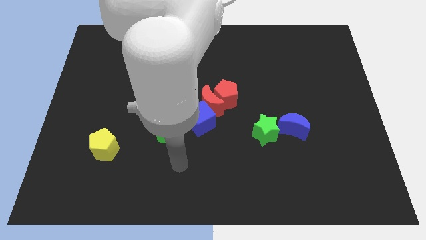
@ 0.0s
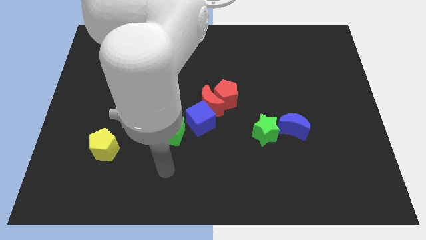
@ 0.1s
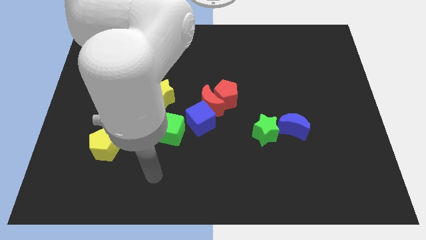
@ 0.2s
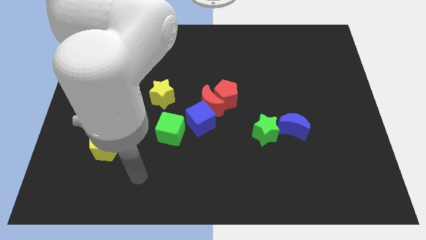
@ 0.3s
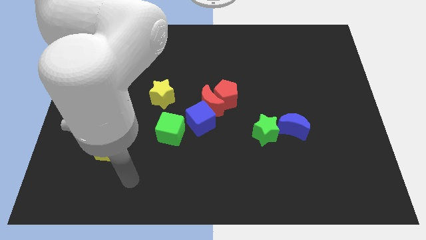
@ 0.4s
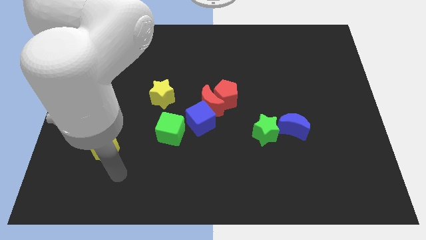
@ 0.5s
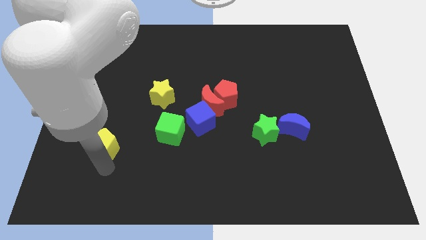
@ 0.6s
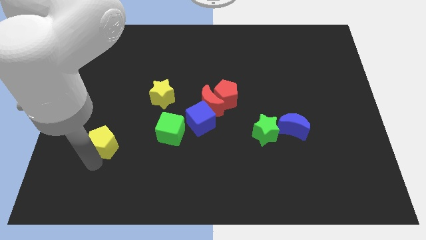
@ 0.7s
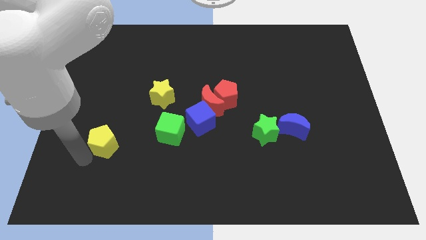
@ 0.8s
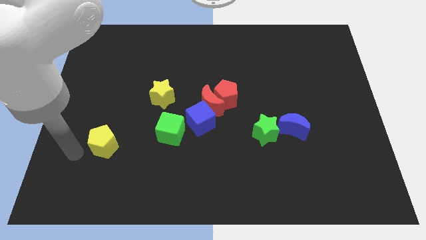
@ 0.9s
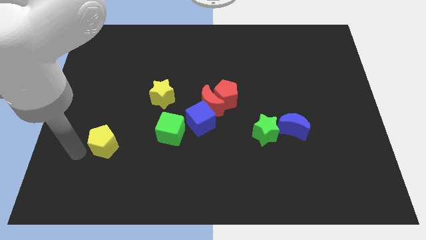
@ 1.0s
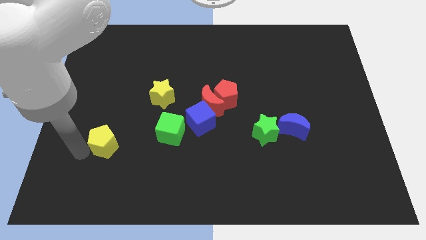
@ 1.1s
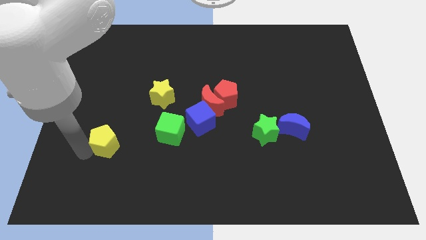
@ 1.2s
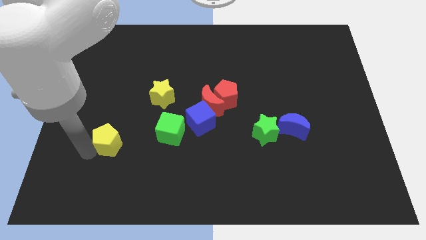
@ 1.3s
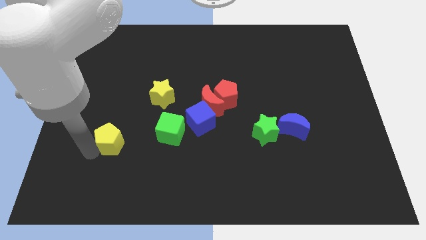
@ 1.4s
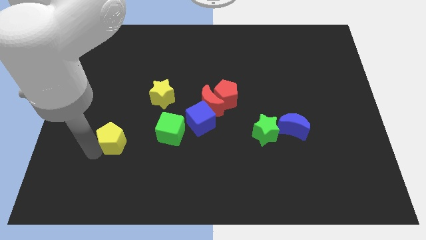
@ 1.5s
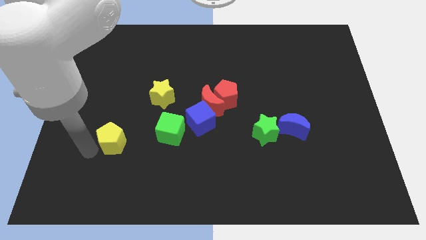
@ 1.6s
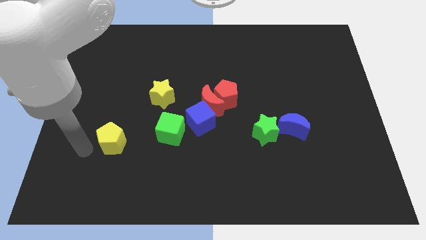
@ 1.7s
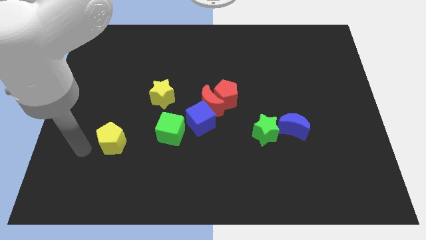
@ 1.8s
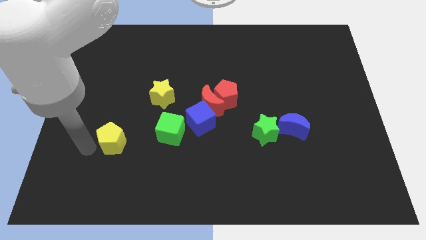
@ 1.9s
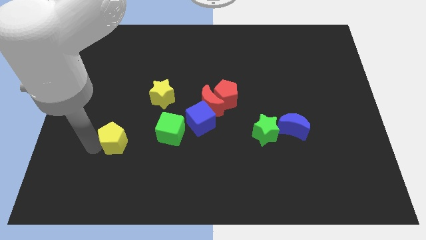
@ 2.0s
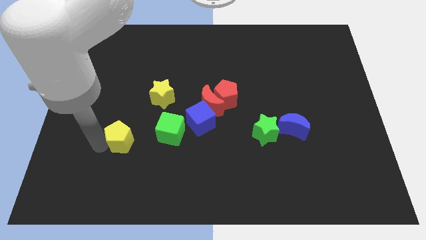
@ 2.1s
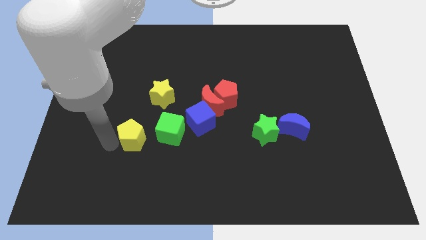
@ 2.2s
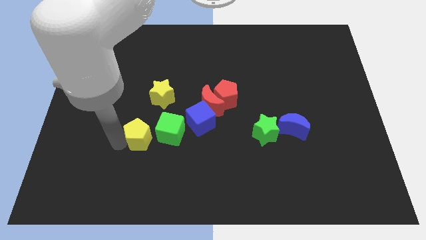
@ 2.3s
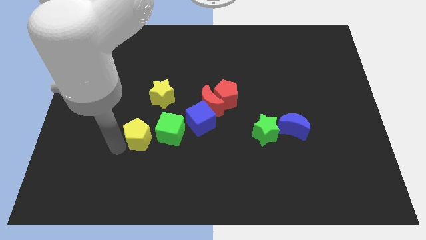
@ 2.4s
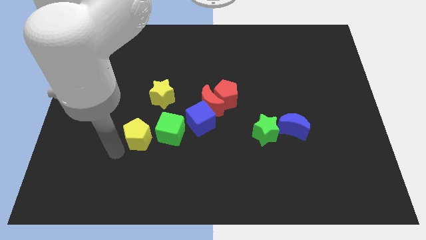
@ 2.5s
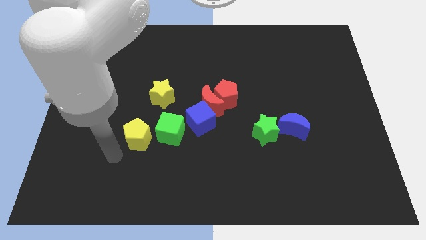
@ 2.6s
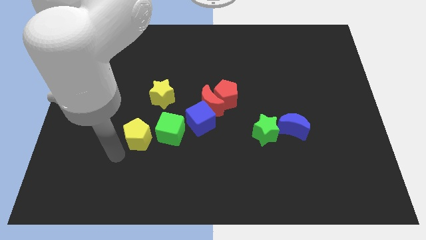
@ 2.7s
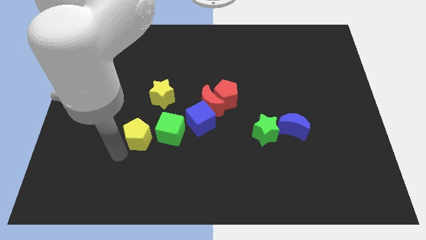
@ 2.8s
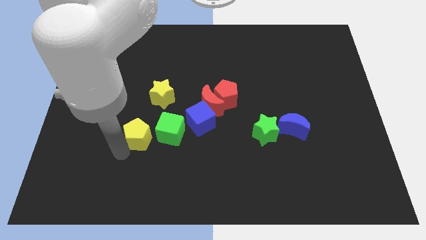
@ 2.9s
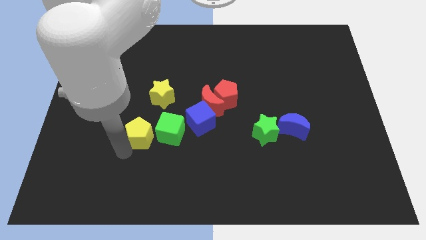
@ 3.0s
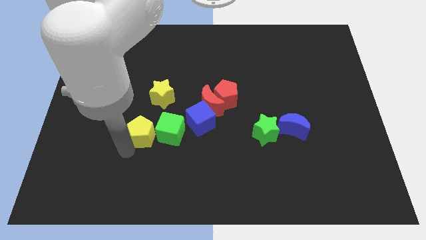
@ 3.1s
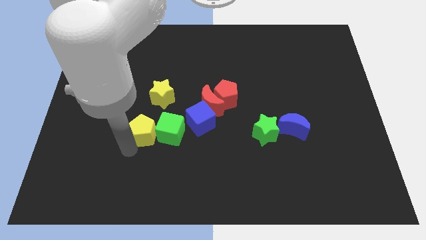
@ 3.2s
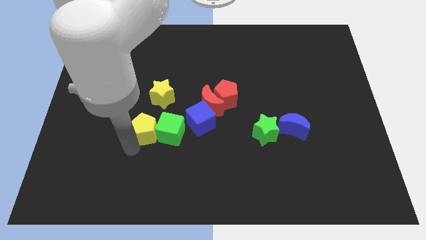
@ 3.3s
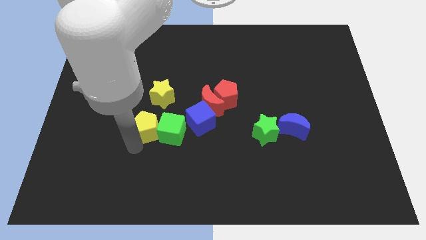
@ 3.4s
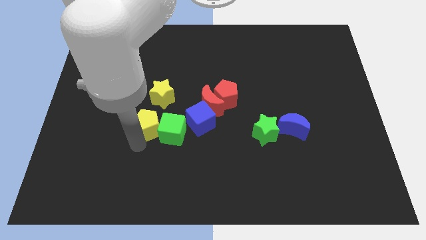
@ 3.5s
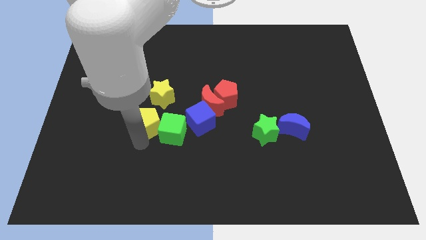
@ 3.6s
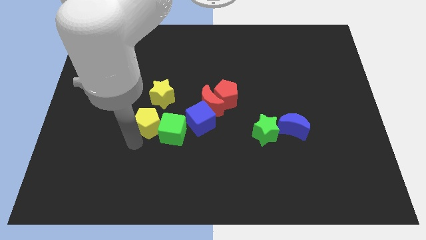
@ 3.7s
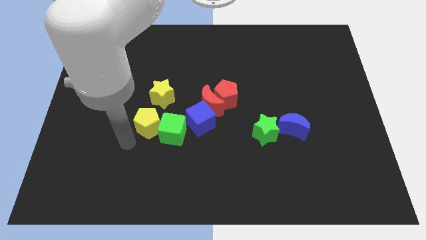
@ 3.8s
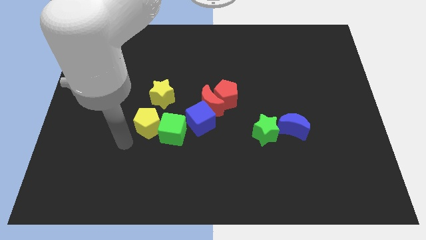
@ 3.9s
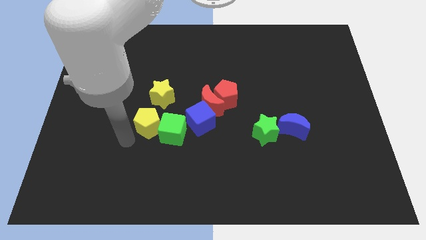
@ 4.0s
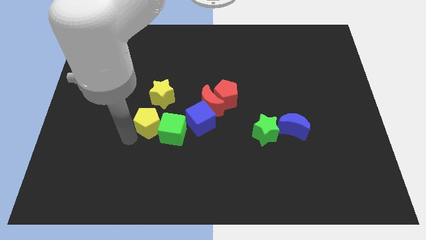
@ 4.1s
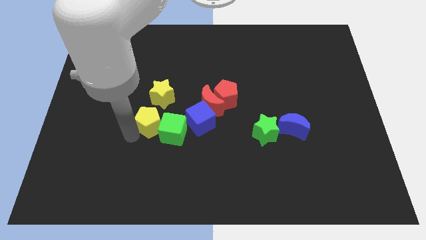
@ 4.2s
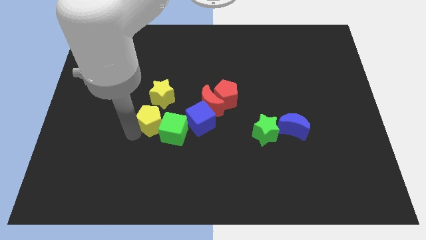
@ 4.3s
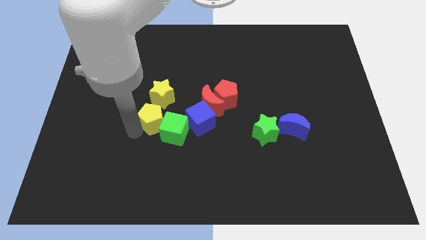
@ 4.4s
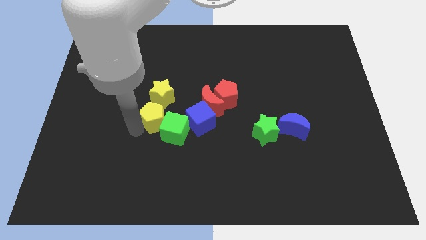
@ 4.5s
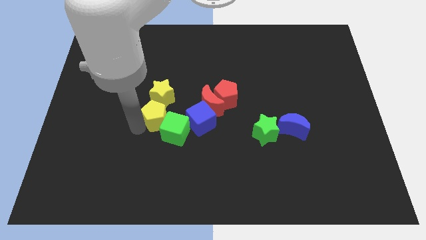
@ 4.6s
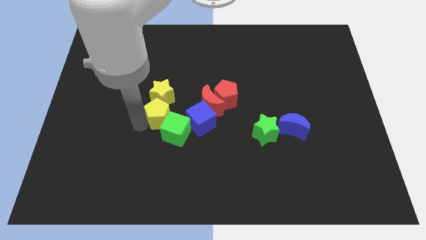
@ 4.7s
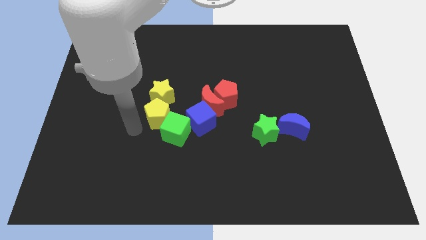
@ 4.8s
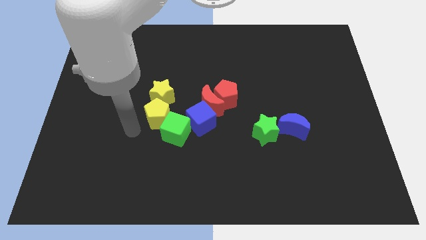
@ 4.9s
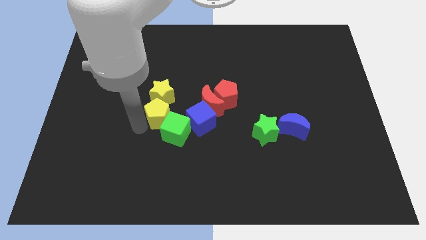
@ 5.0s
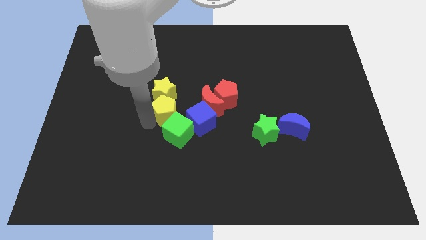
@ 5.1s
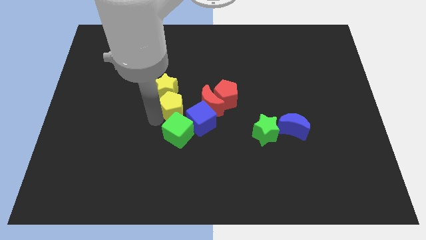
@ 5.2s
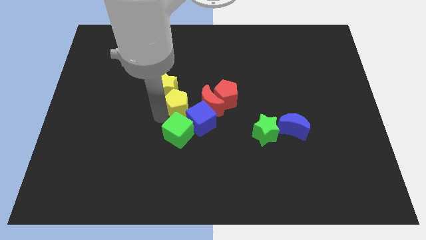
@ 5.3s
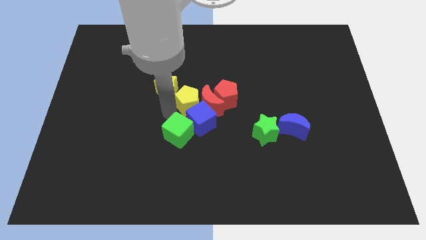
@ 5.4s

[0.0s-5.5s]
push the yellow pentagon close to the red moon

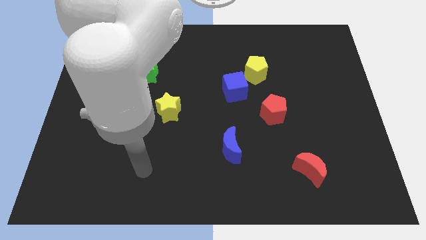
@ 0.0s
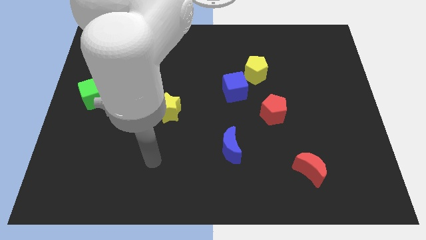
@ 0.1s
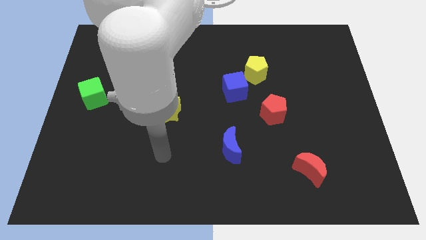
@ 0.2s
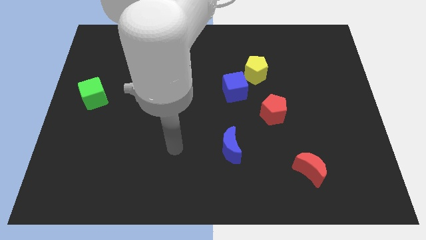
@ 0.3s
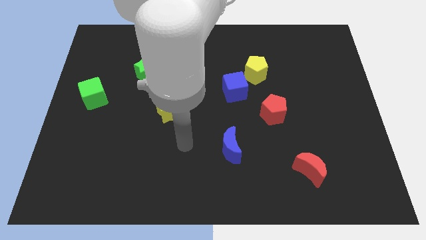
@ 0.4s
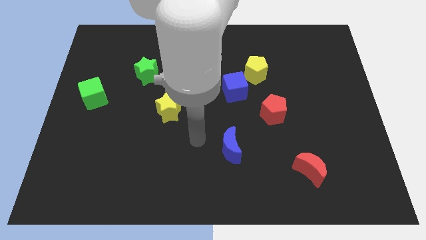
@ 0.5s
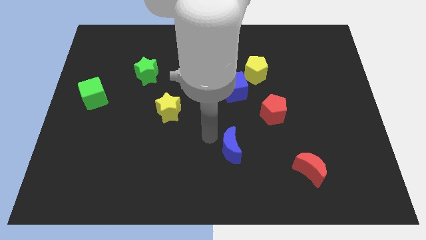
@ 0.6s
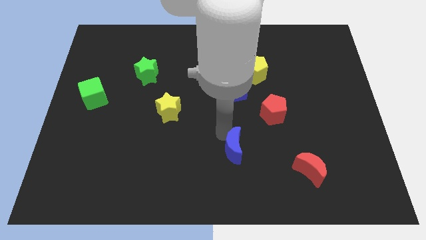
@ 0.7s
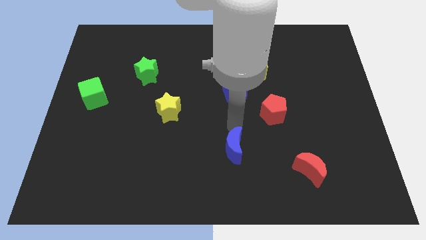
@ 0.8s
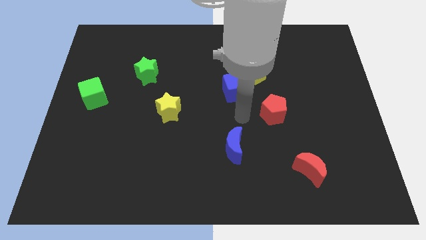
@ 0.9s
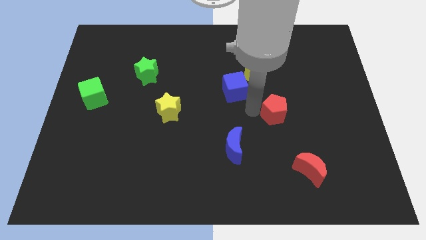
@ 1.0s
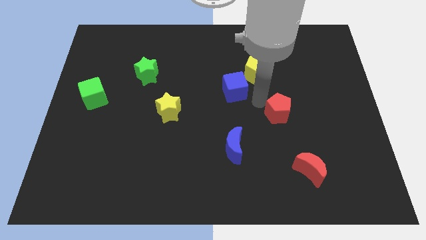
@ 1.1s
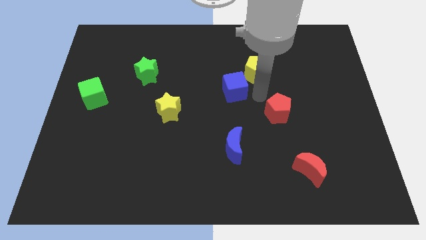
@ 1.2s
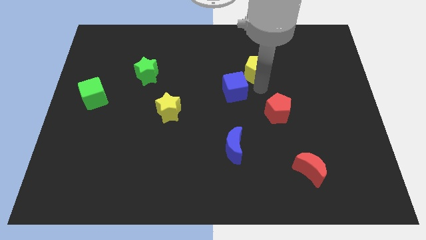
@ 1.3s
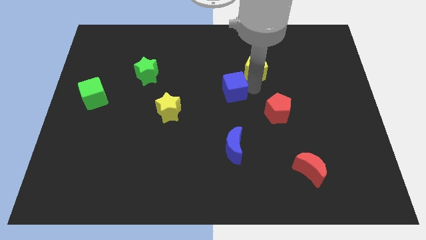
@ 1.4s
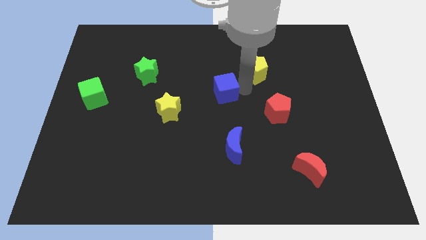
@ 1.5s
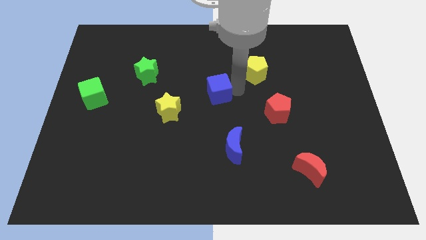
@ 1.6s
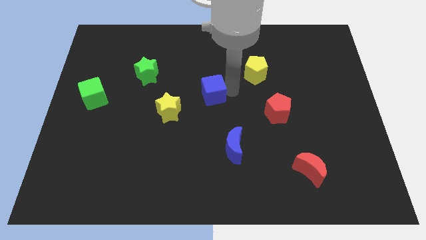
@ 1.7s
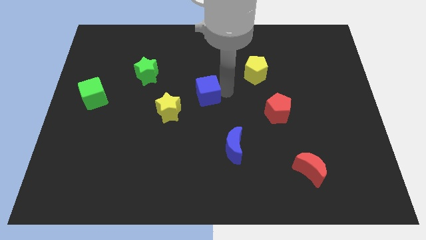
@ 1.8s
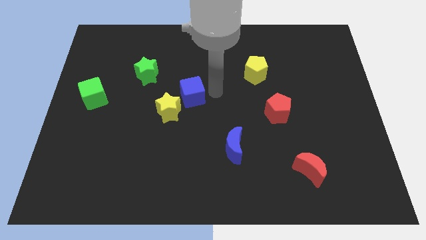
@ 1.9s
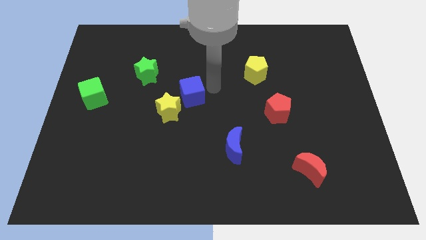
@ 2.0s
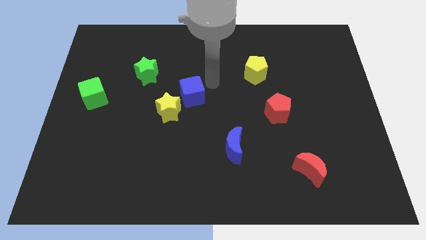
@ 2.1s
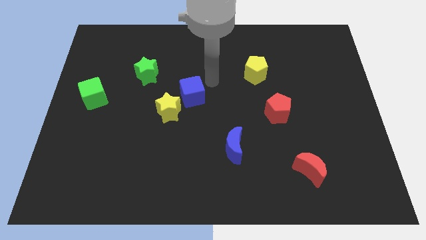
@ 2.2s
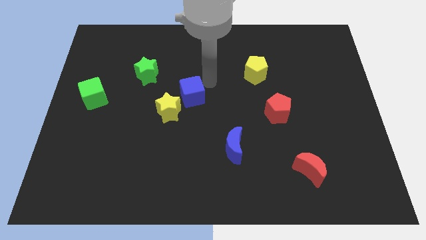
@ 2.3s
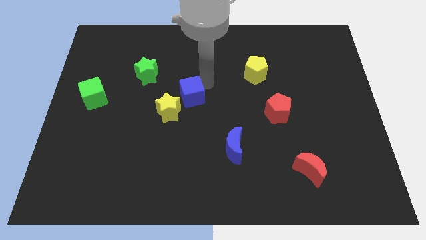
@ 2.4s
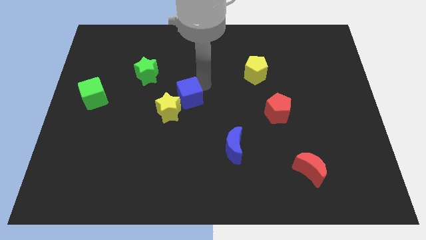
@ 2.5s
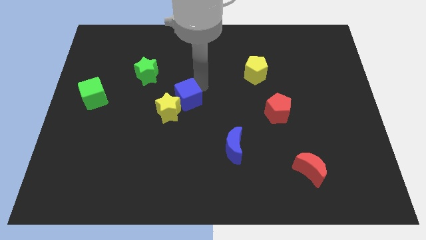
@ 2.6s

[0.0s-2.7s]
put the blue cube towards the yellow star
